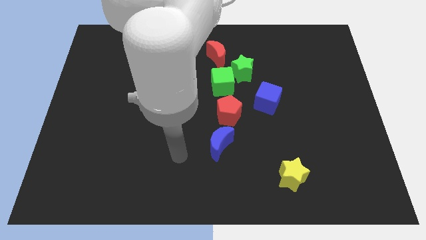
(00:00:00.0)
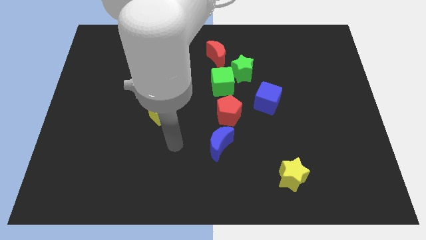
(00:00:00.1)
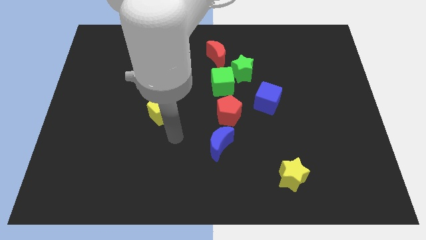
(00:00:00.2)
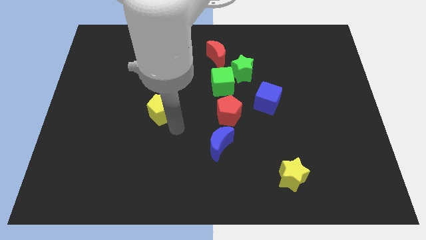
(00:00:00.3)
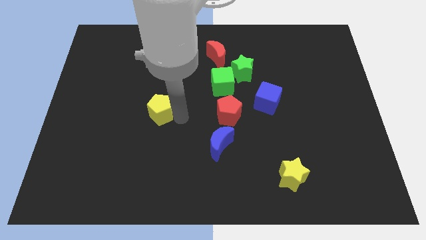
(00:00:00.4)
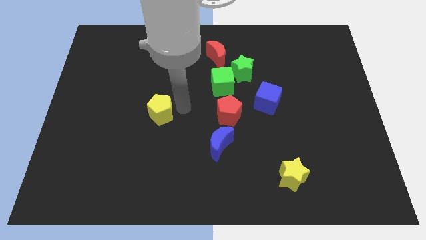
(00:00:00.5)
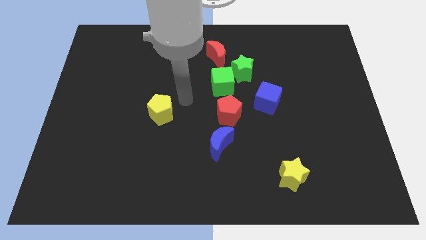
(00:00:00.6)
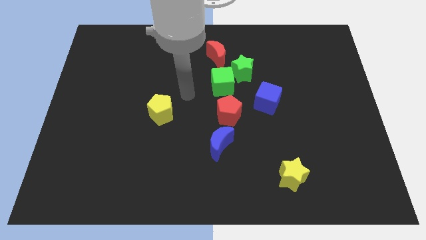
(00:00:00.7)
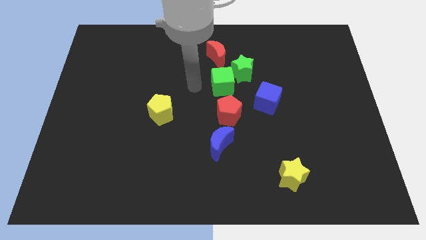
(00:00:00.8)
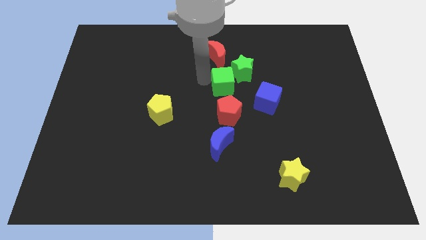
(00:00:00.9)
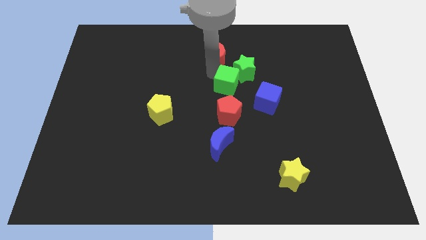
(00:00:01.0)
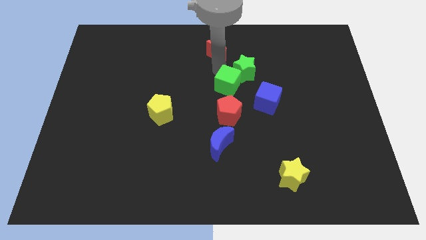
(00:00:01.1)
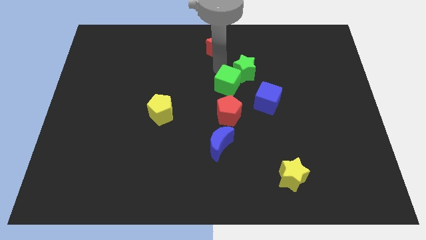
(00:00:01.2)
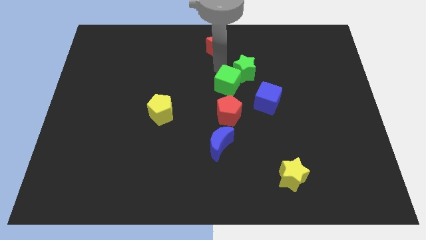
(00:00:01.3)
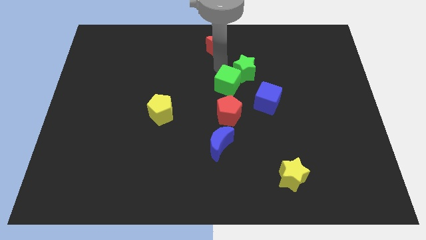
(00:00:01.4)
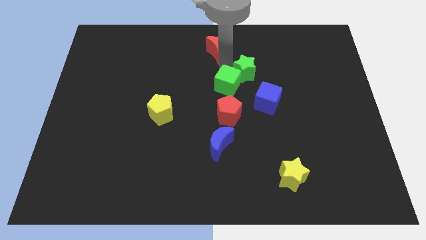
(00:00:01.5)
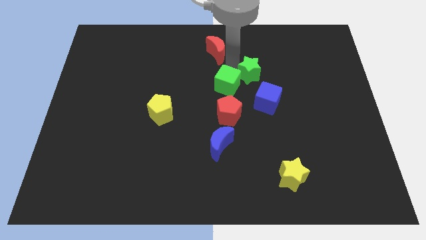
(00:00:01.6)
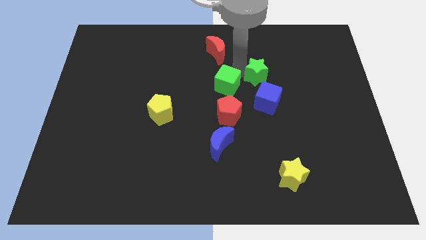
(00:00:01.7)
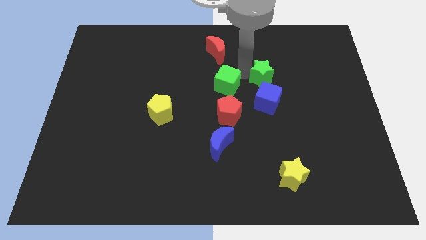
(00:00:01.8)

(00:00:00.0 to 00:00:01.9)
move the green star away from the green cube and red moon

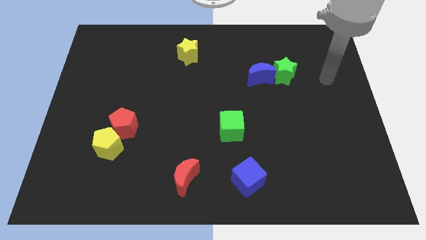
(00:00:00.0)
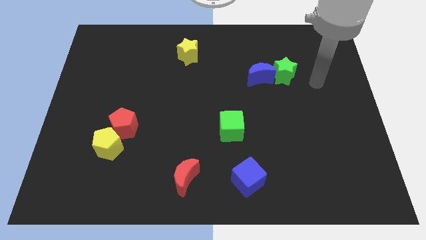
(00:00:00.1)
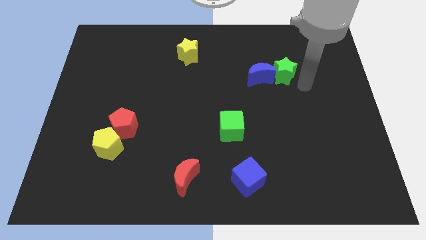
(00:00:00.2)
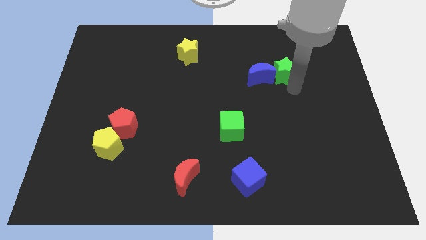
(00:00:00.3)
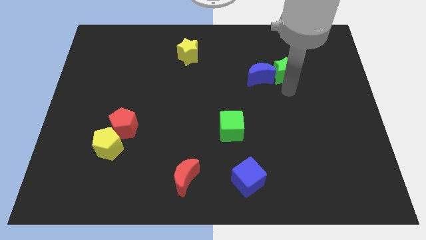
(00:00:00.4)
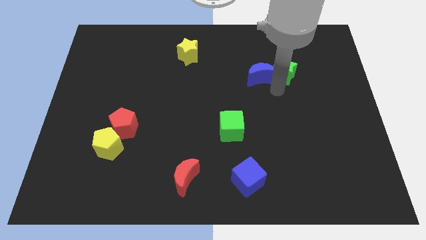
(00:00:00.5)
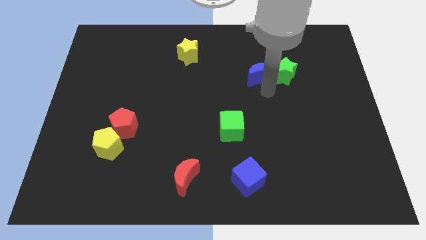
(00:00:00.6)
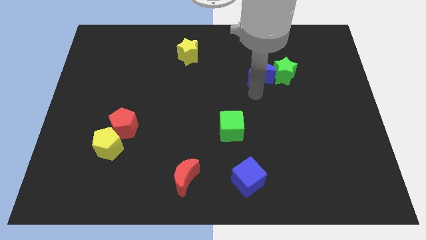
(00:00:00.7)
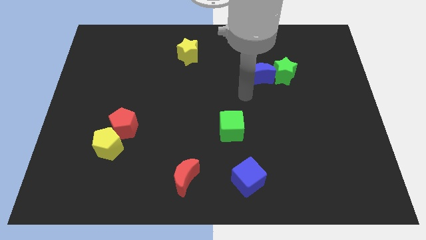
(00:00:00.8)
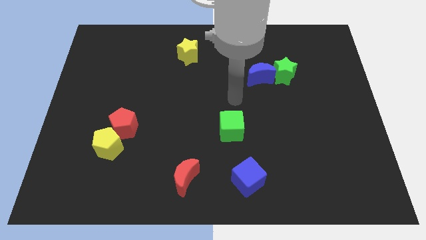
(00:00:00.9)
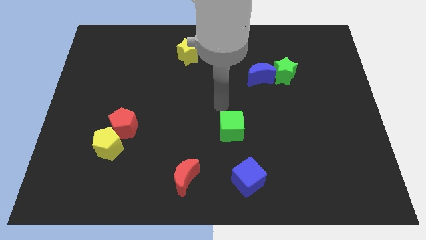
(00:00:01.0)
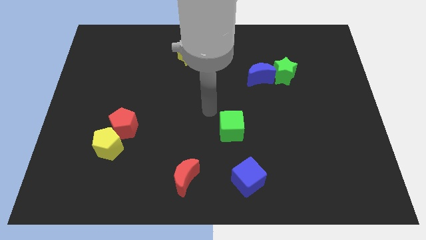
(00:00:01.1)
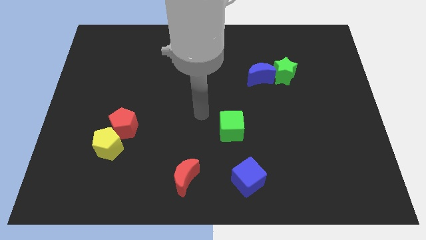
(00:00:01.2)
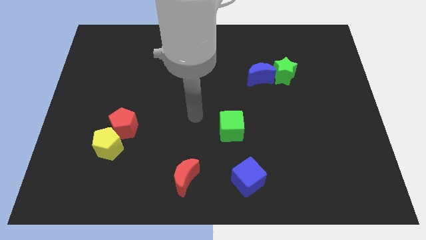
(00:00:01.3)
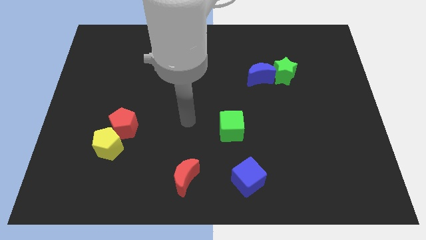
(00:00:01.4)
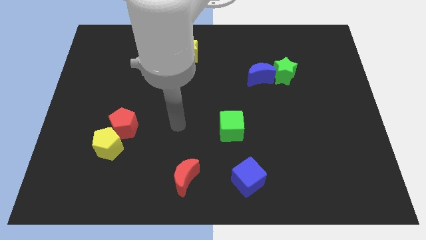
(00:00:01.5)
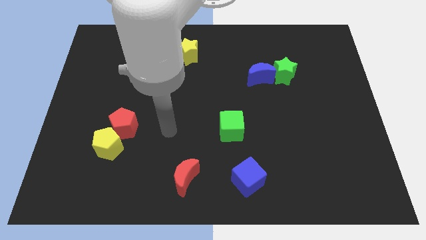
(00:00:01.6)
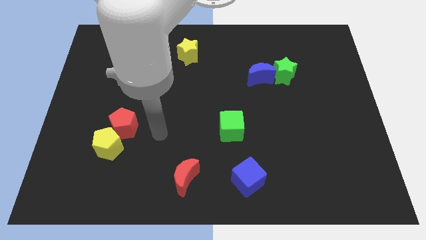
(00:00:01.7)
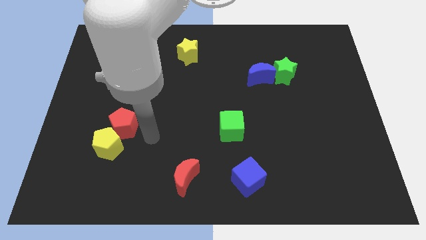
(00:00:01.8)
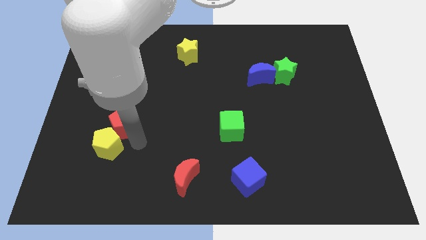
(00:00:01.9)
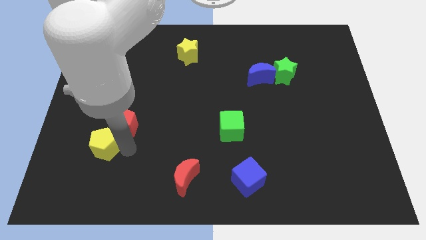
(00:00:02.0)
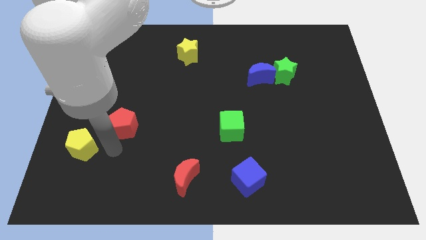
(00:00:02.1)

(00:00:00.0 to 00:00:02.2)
move the red pentagon away from the yellow pentagon

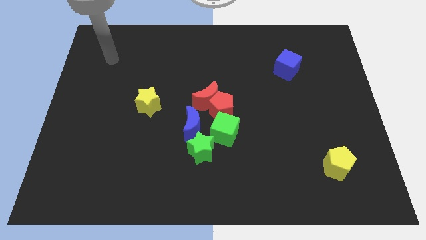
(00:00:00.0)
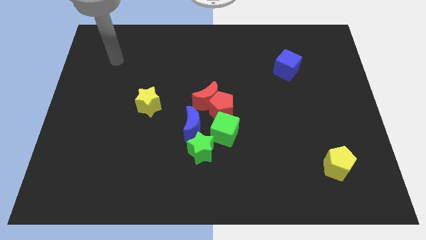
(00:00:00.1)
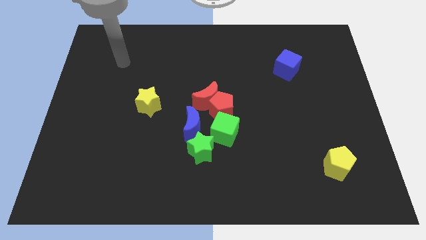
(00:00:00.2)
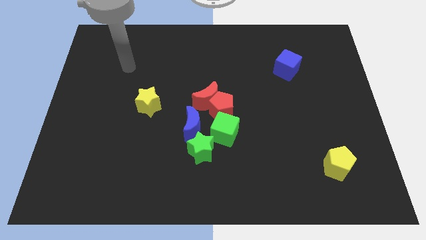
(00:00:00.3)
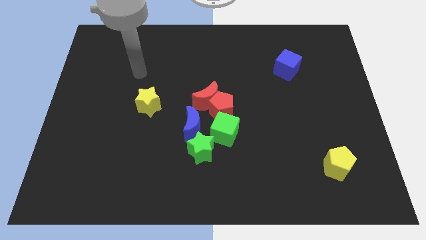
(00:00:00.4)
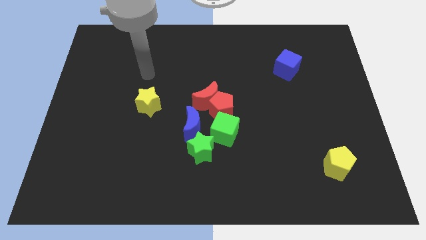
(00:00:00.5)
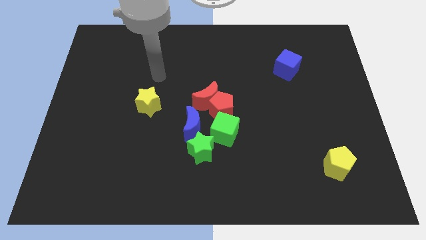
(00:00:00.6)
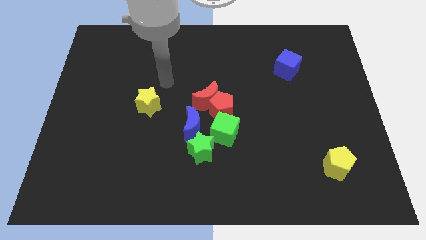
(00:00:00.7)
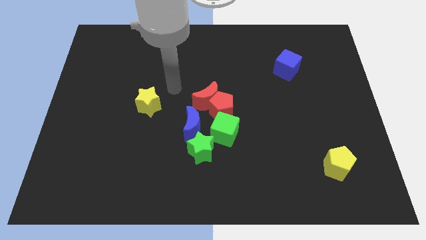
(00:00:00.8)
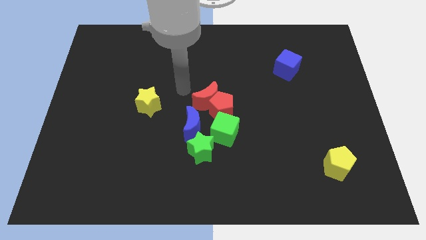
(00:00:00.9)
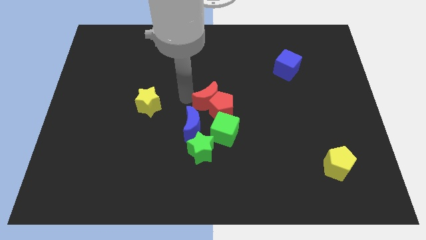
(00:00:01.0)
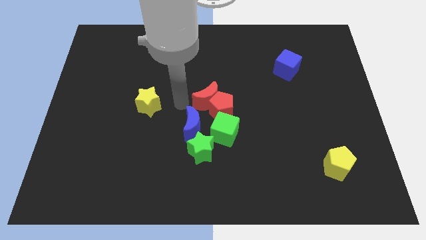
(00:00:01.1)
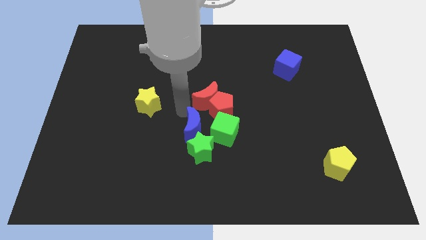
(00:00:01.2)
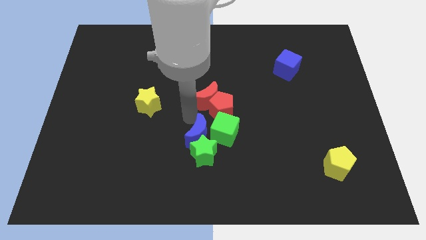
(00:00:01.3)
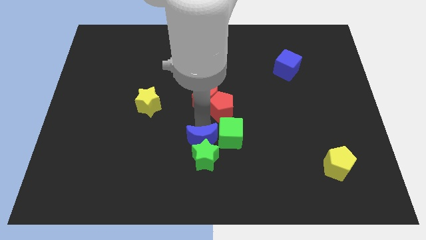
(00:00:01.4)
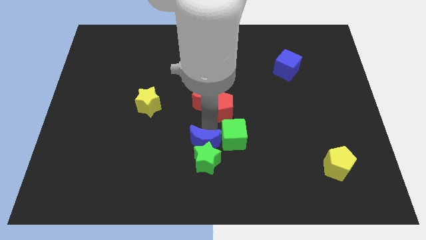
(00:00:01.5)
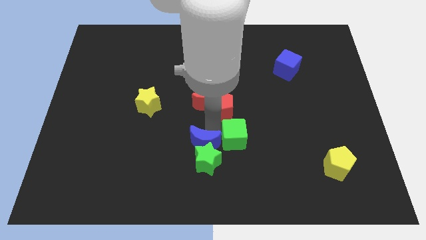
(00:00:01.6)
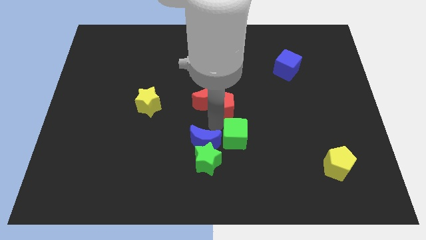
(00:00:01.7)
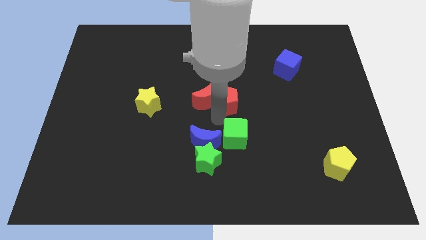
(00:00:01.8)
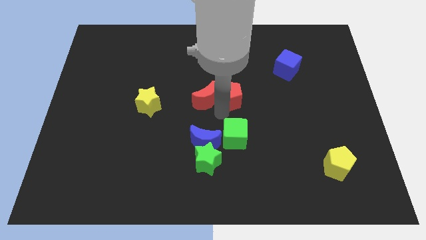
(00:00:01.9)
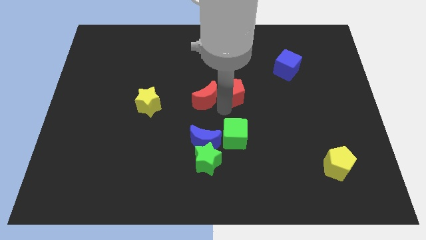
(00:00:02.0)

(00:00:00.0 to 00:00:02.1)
pull the red pentagon apart from the clump

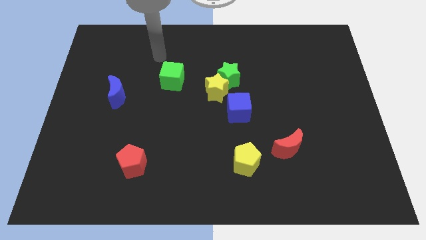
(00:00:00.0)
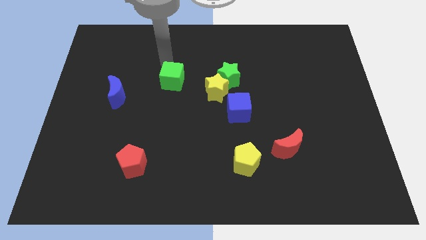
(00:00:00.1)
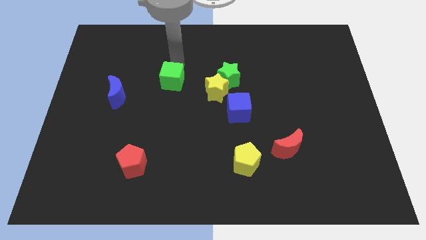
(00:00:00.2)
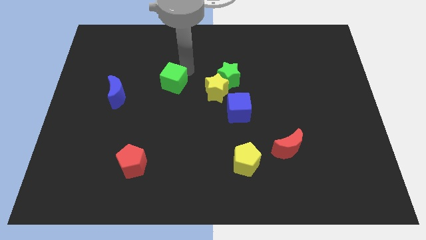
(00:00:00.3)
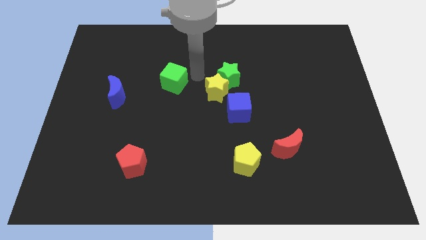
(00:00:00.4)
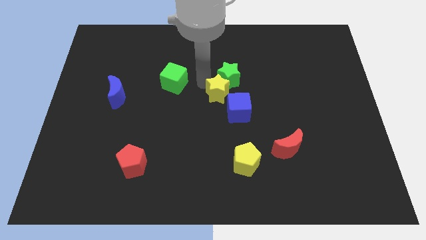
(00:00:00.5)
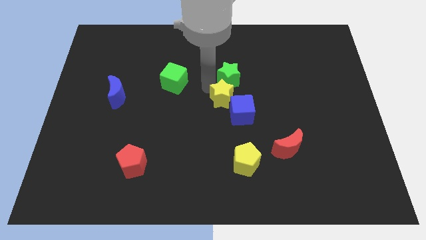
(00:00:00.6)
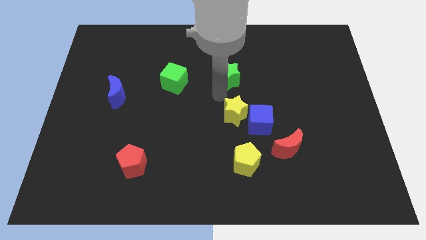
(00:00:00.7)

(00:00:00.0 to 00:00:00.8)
pull the green star apart from the yellow star

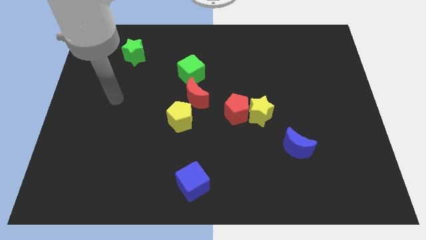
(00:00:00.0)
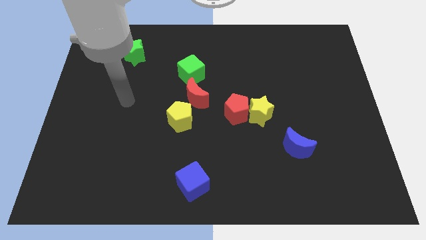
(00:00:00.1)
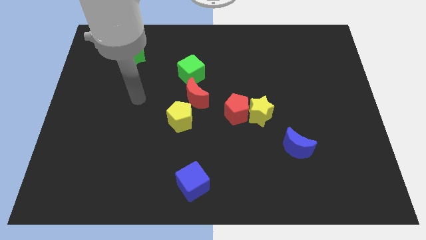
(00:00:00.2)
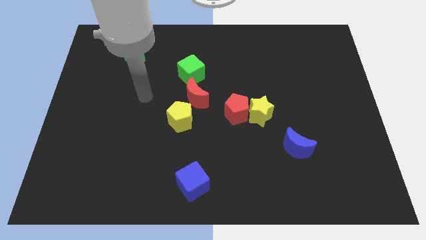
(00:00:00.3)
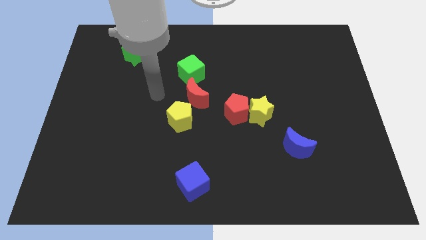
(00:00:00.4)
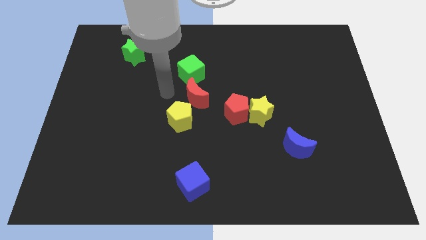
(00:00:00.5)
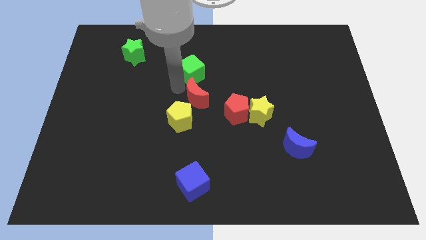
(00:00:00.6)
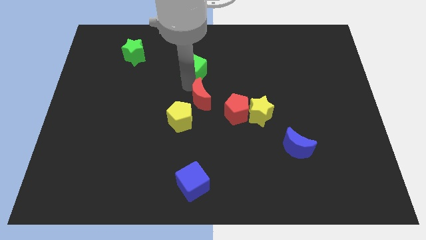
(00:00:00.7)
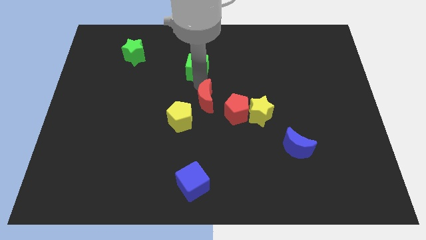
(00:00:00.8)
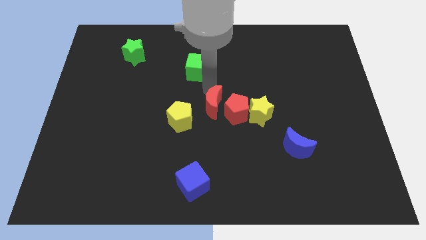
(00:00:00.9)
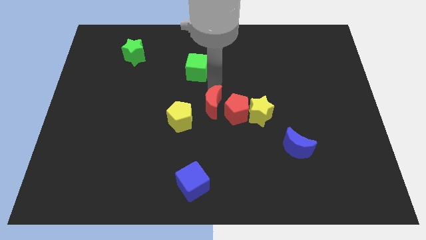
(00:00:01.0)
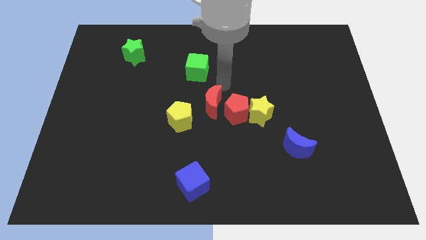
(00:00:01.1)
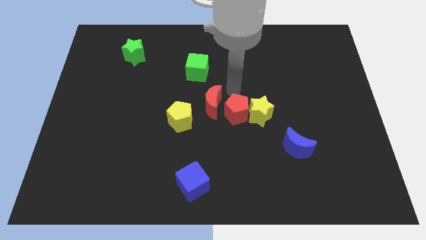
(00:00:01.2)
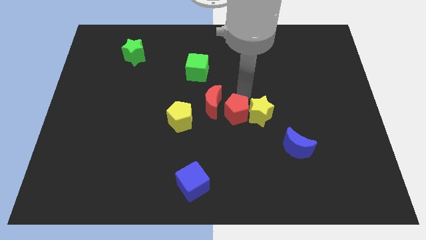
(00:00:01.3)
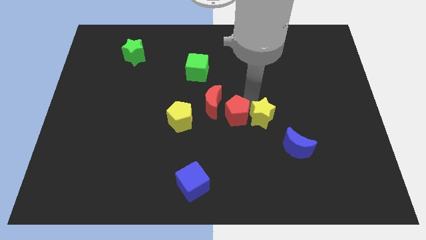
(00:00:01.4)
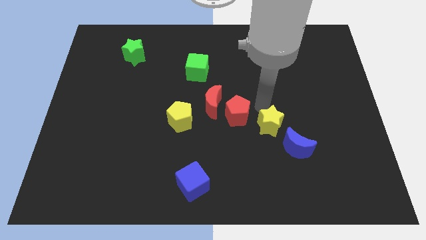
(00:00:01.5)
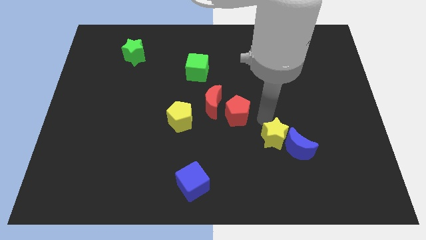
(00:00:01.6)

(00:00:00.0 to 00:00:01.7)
pull the red pentagon apart from the yellow star

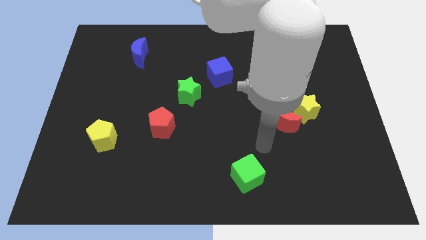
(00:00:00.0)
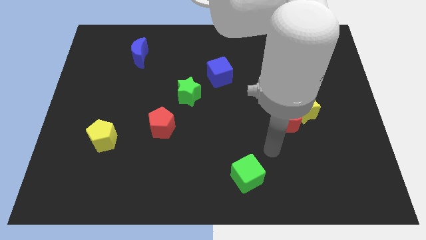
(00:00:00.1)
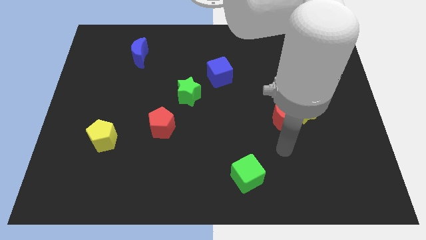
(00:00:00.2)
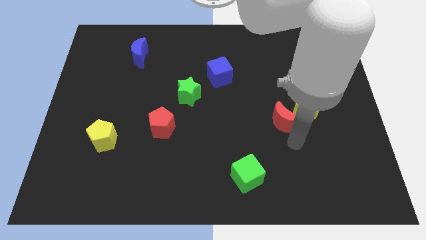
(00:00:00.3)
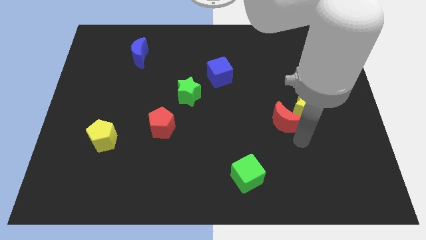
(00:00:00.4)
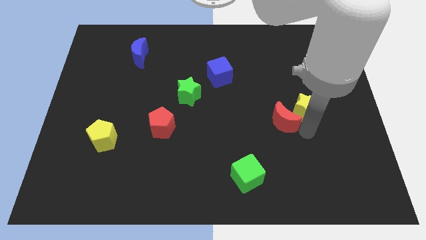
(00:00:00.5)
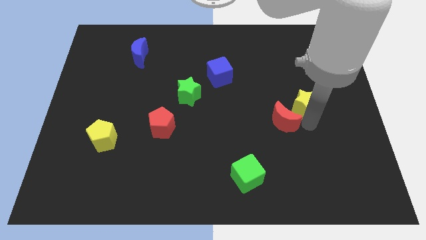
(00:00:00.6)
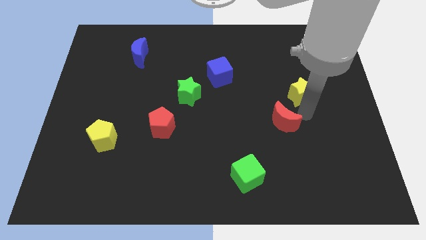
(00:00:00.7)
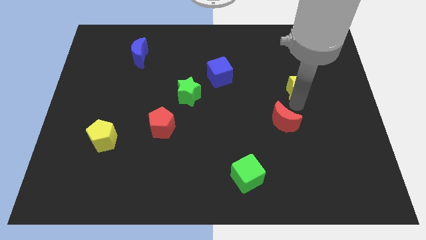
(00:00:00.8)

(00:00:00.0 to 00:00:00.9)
move the red moon away from the yellow star
